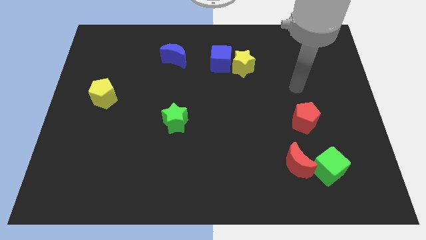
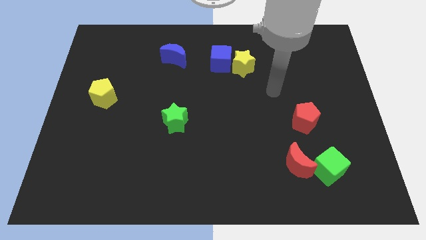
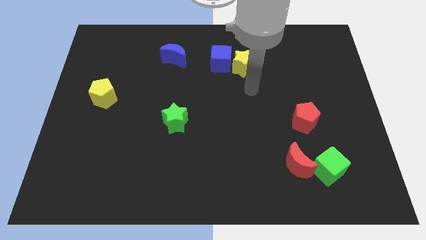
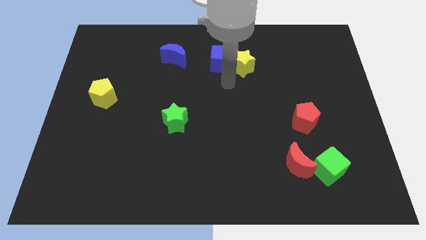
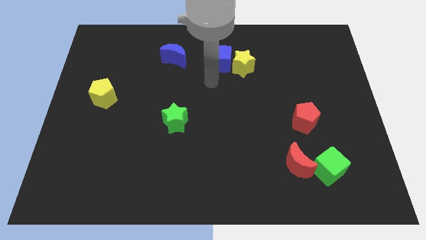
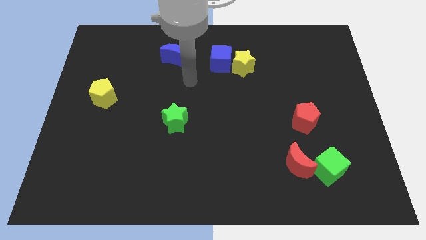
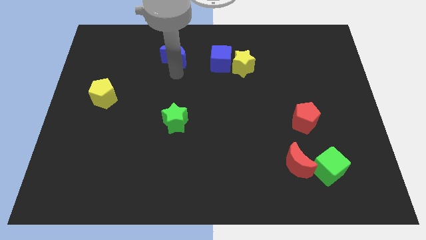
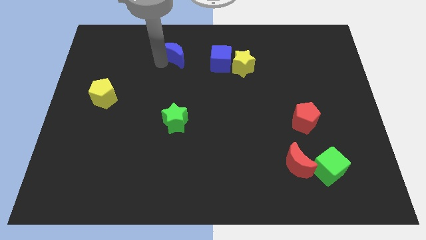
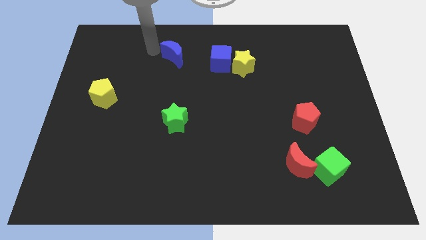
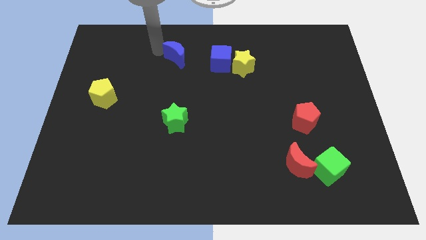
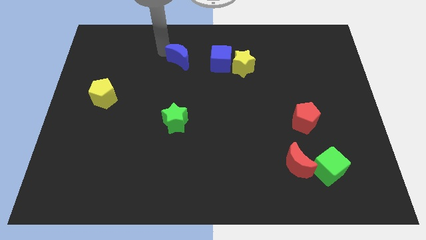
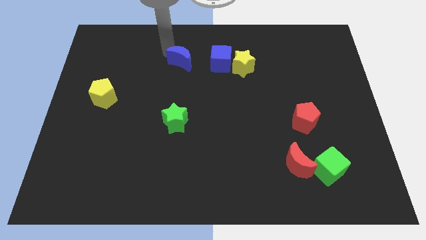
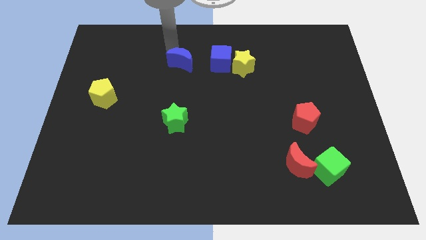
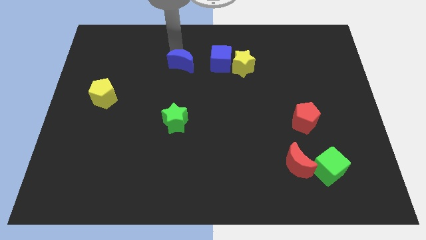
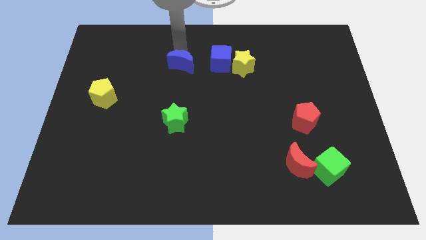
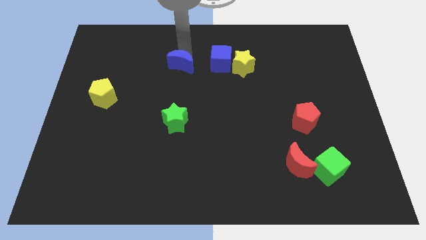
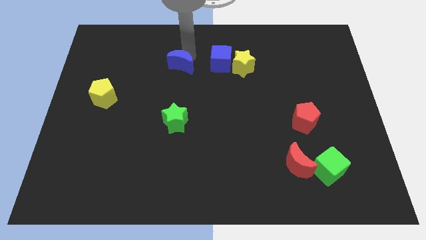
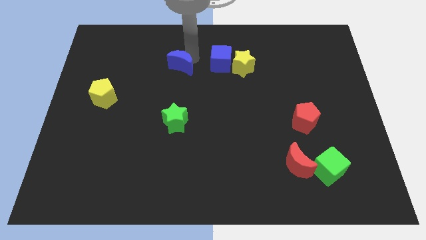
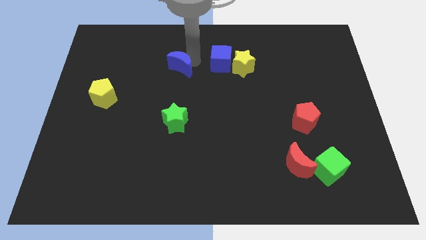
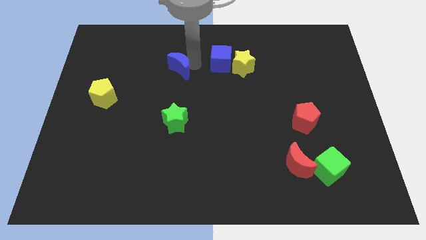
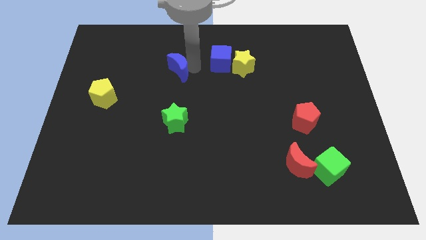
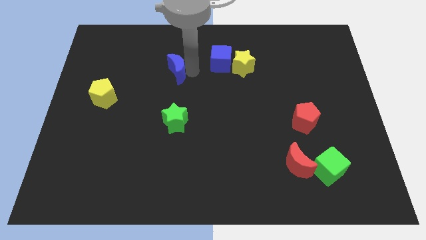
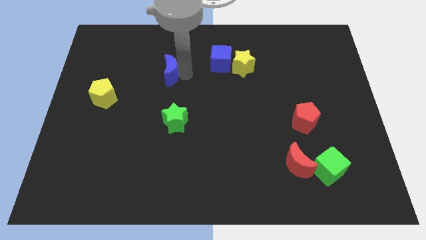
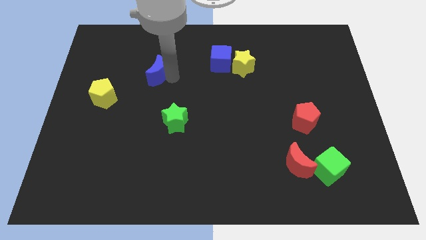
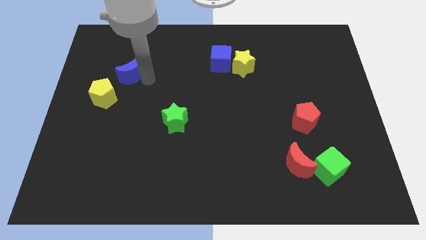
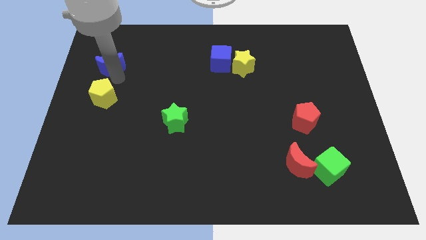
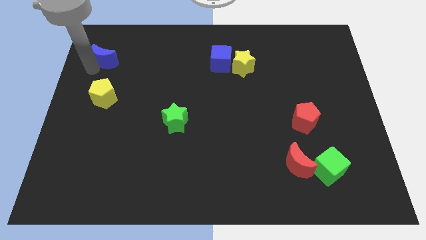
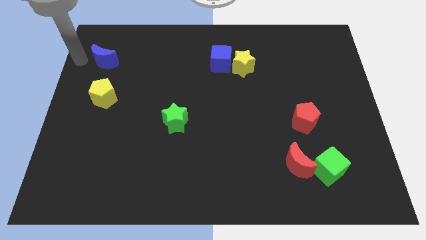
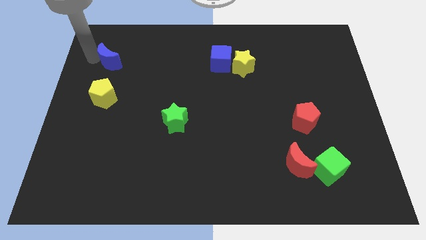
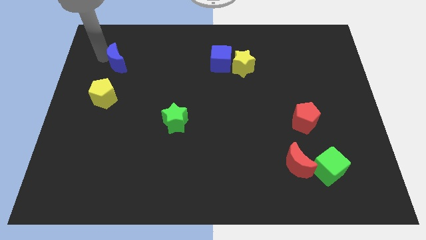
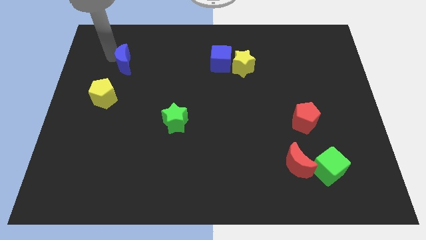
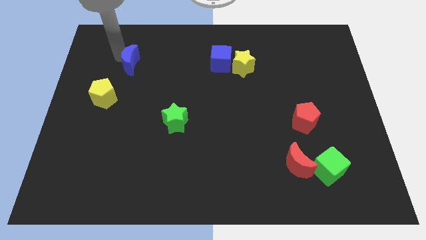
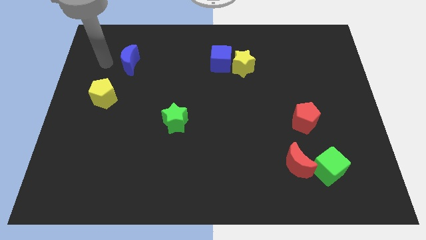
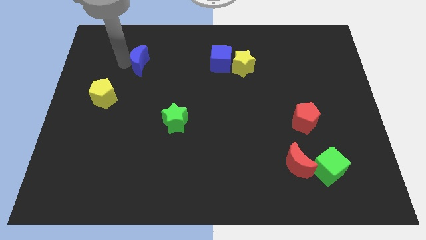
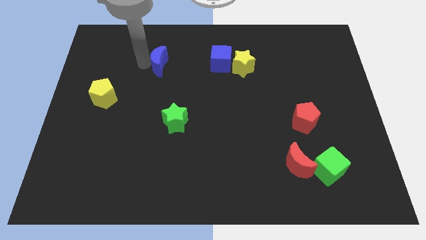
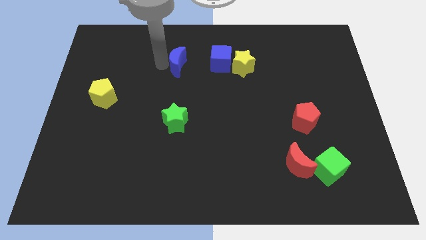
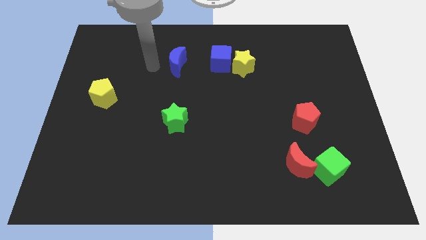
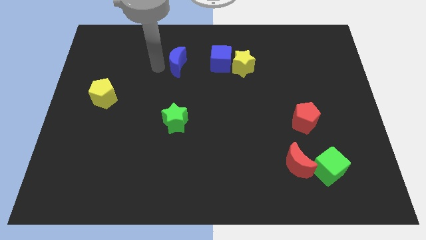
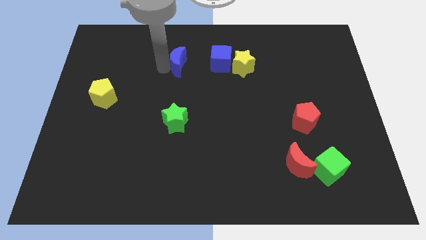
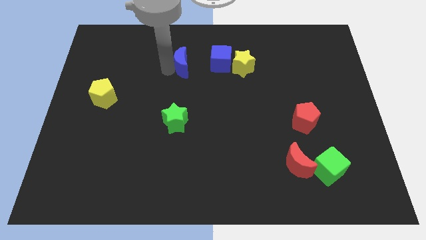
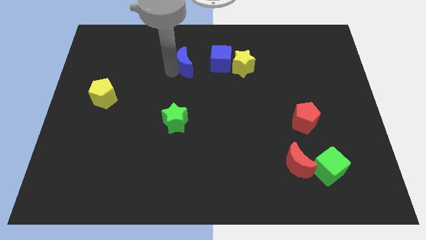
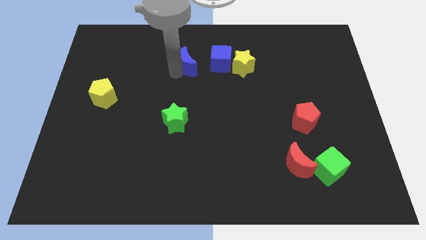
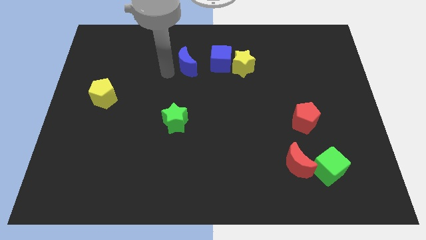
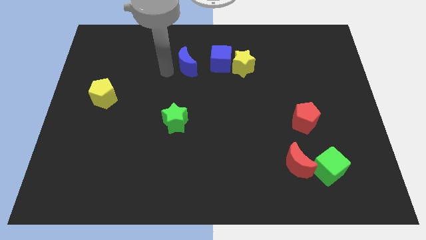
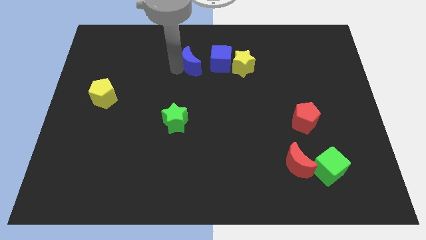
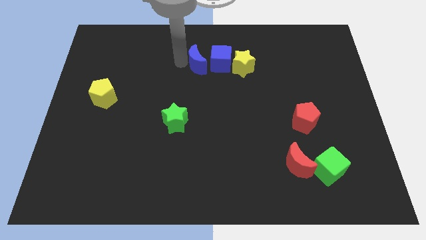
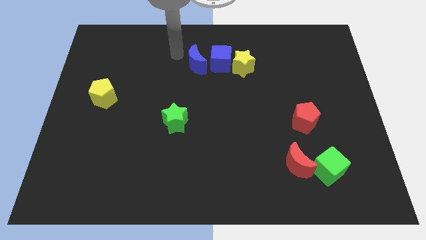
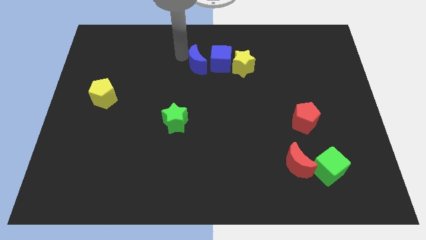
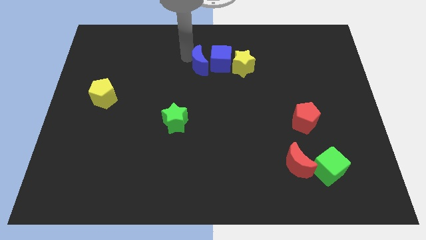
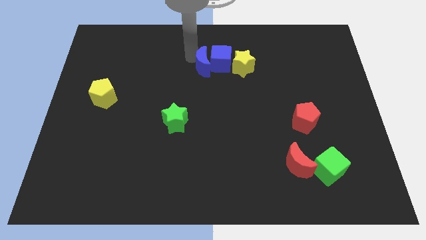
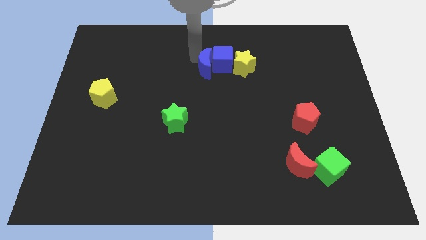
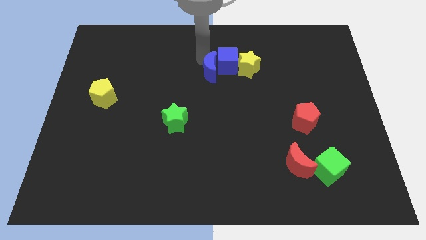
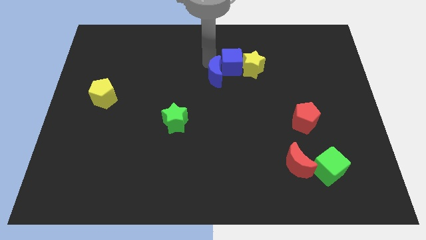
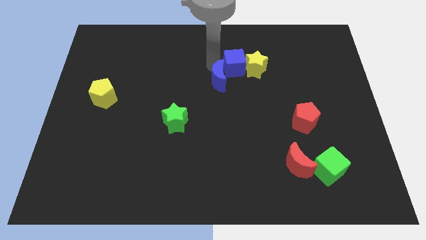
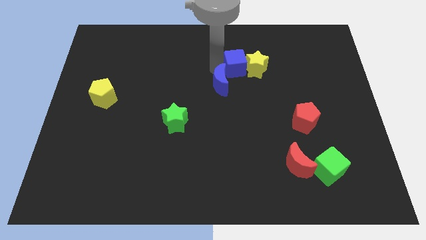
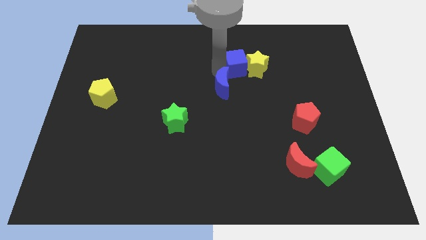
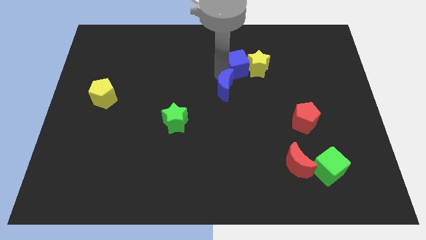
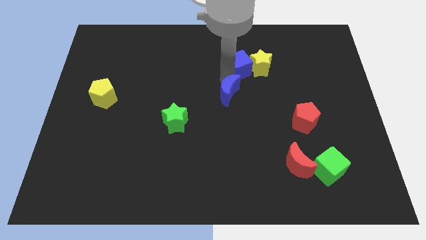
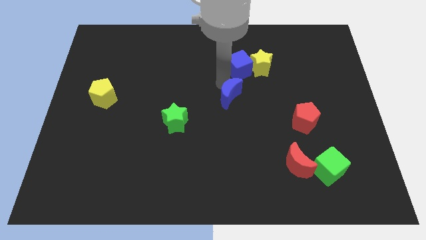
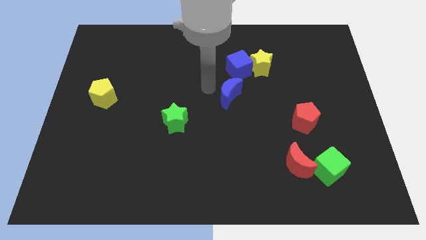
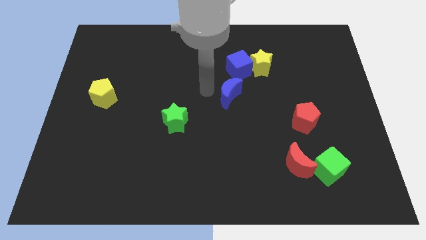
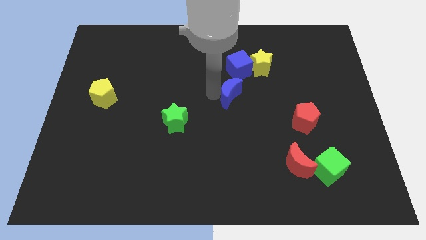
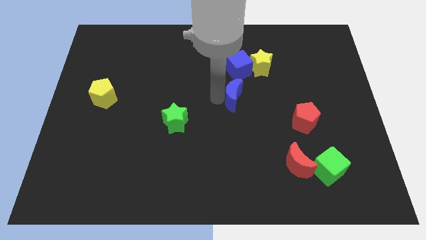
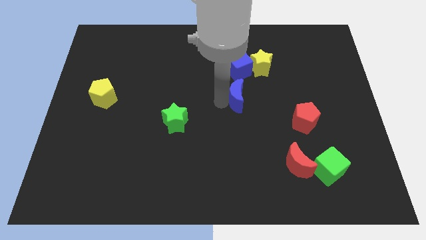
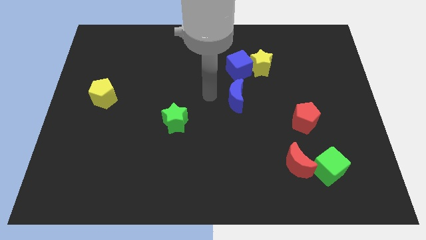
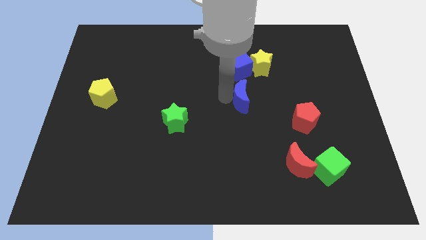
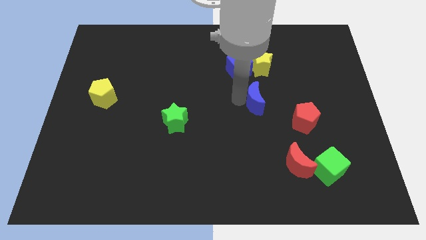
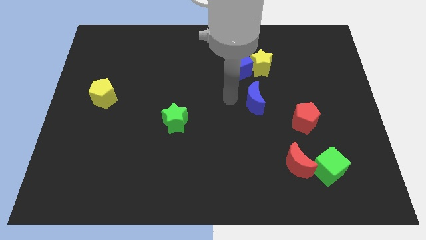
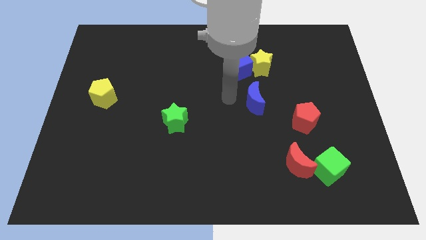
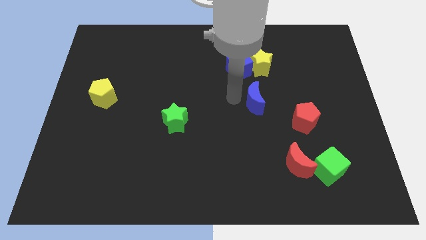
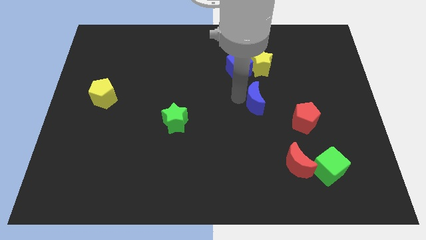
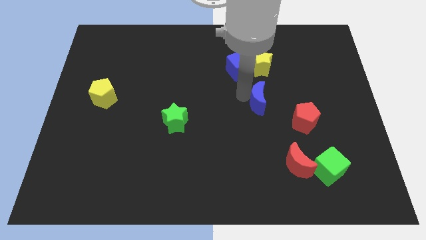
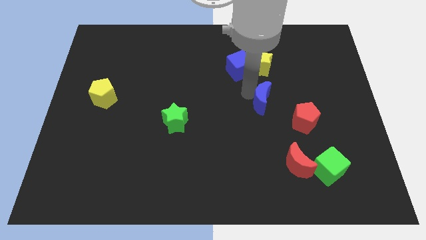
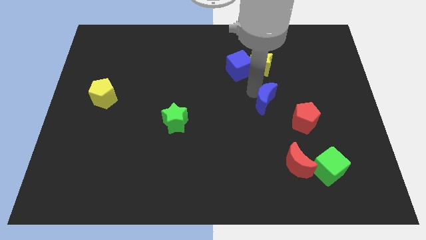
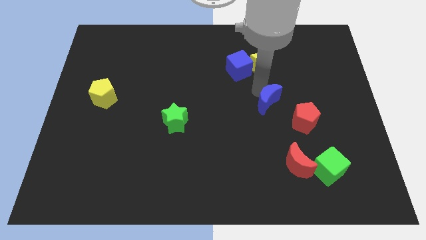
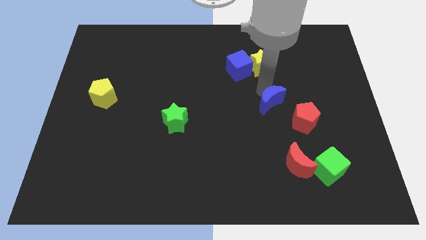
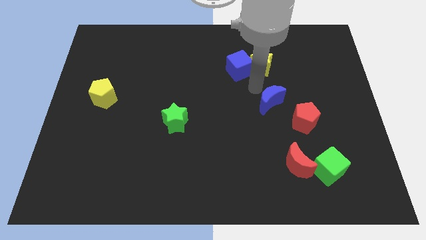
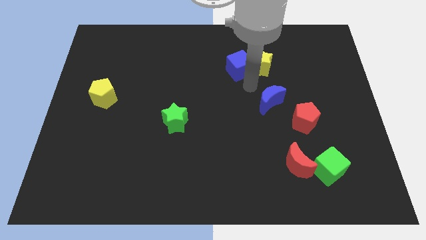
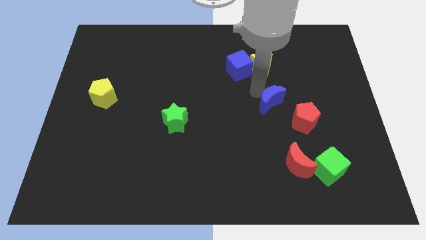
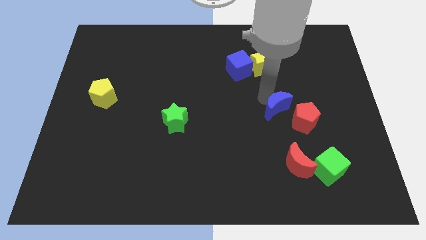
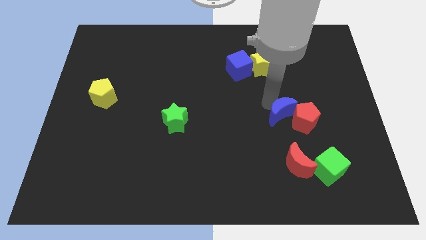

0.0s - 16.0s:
push the blue moon towards the red pentagon

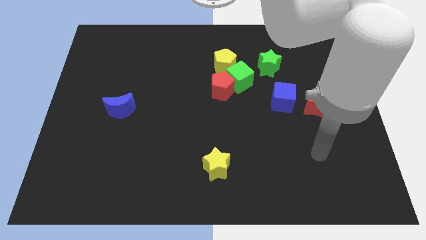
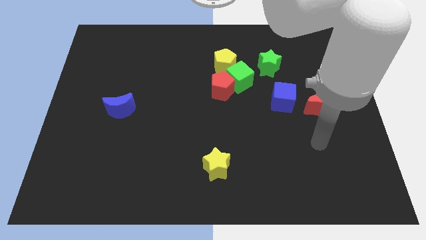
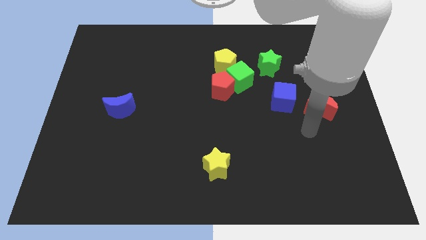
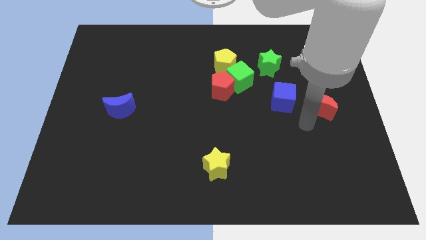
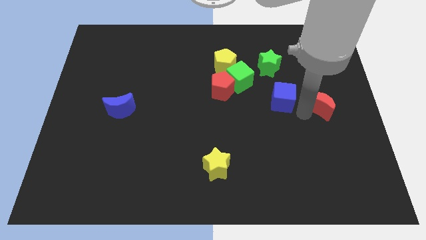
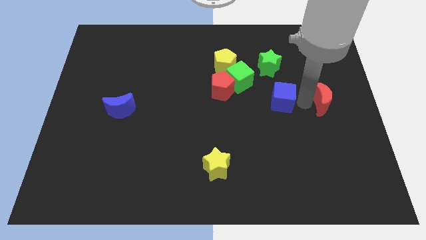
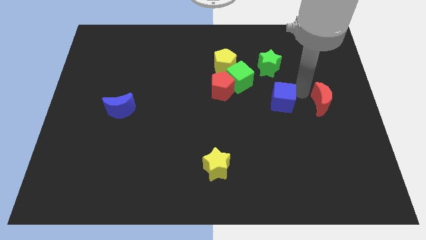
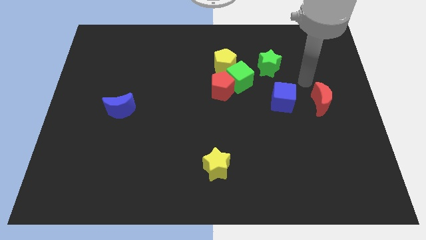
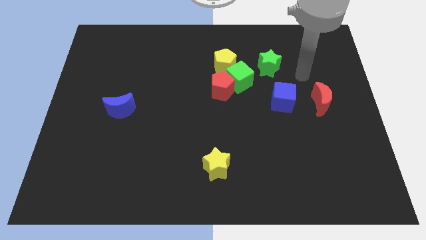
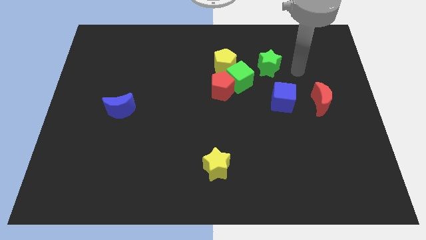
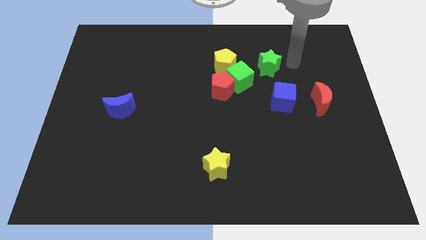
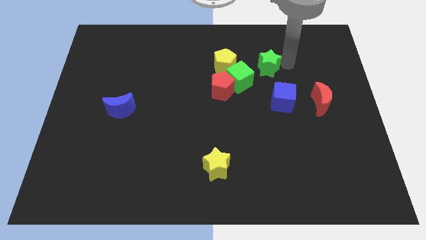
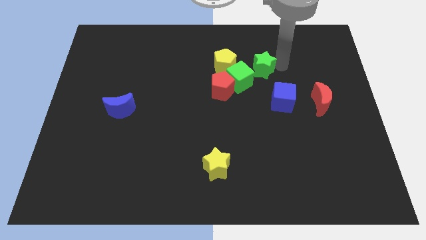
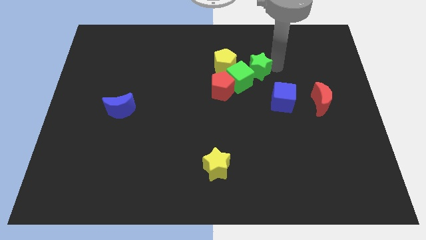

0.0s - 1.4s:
move the green star towards the green cube
